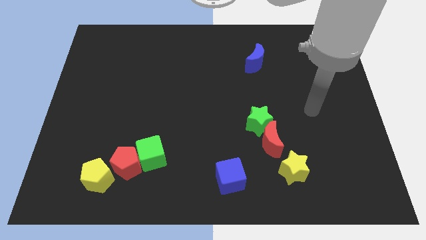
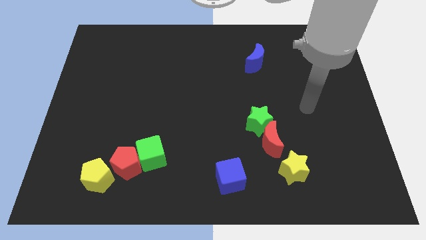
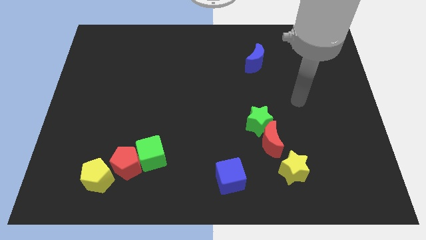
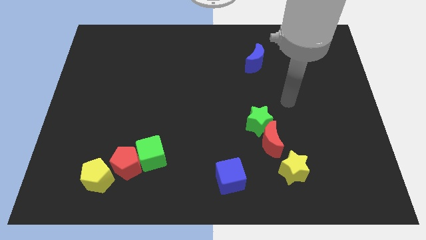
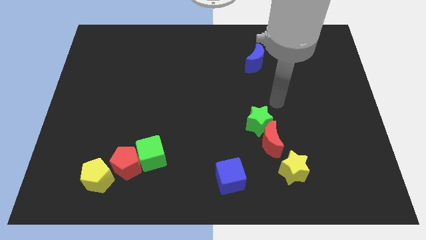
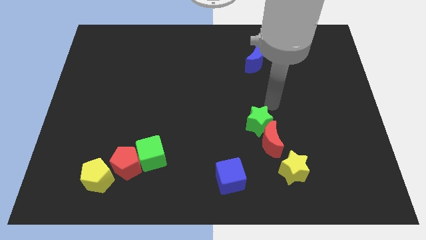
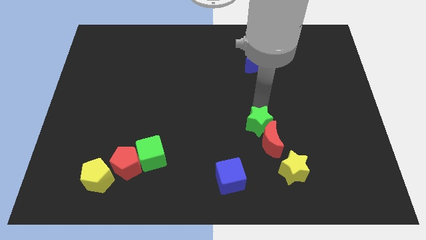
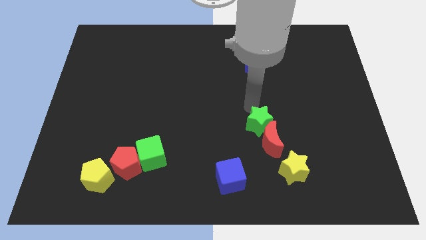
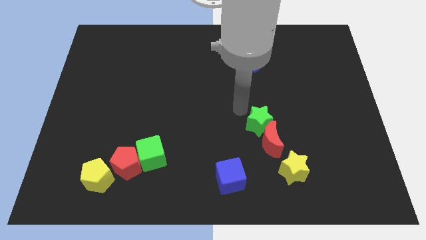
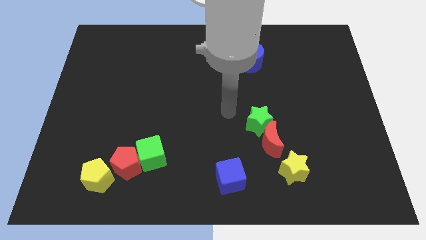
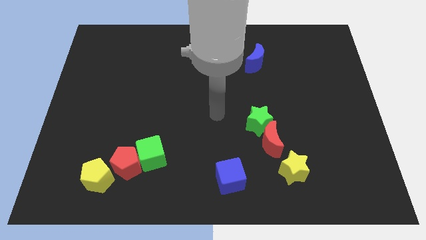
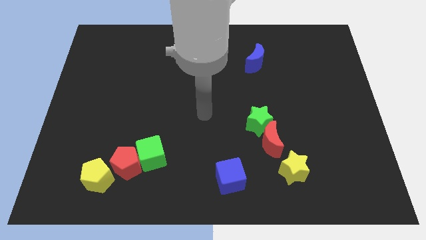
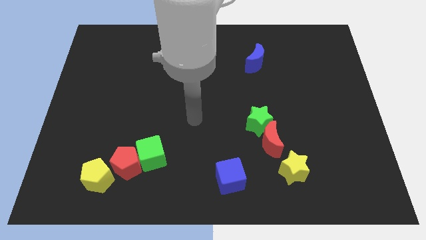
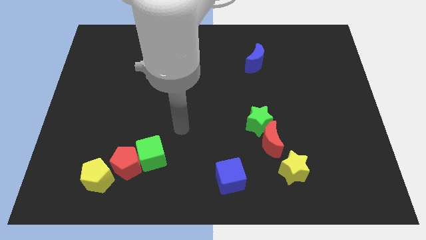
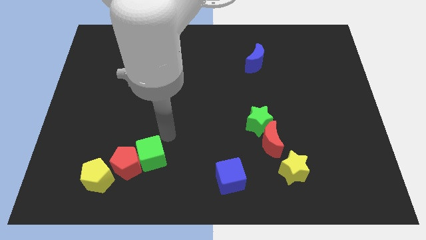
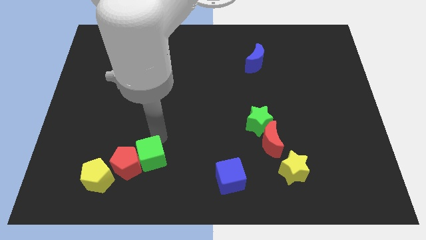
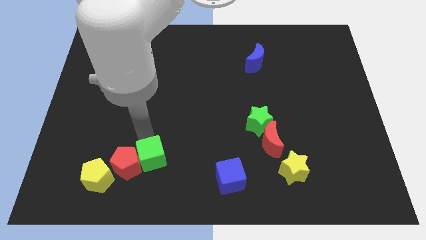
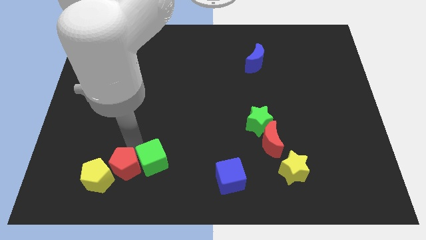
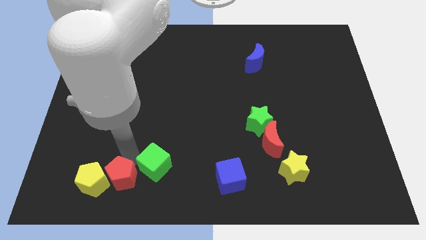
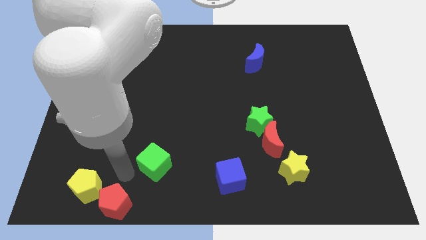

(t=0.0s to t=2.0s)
move the green cube away from the red pentagon

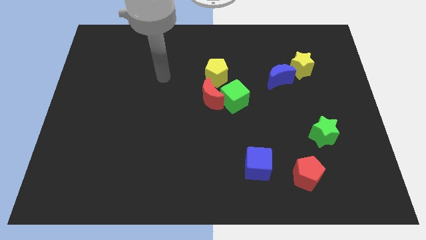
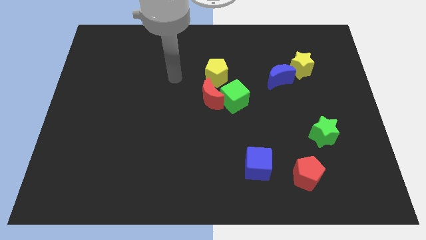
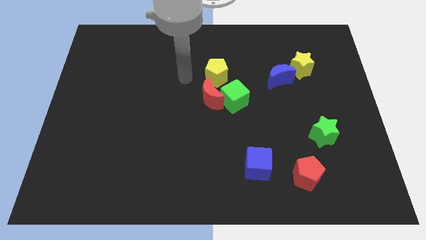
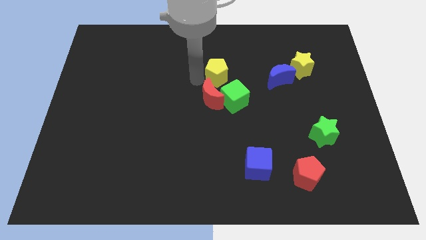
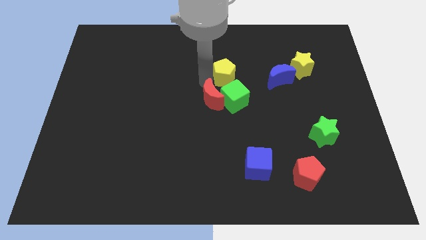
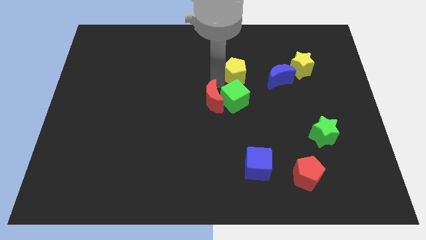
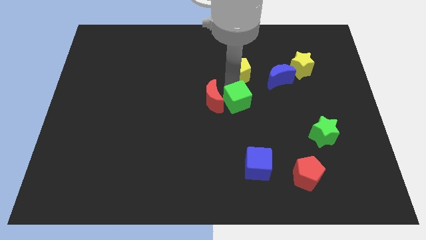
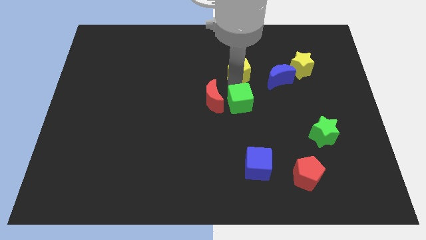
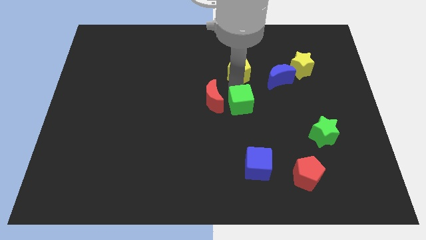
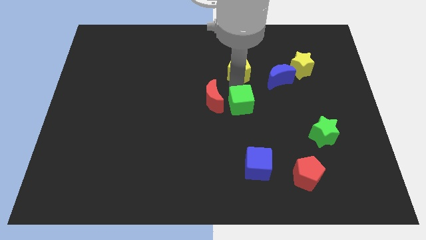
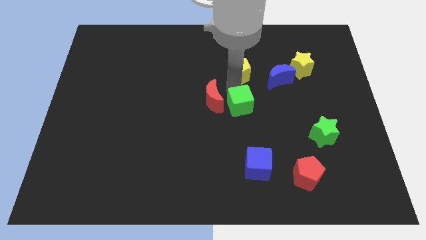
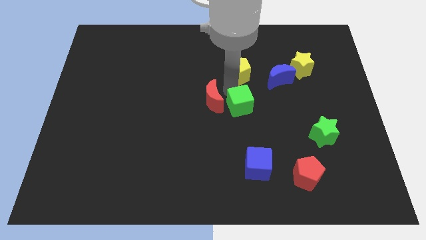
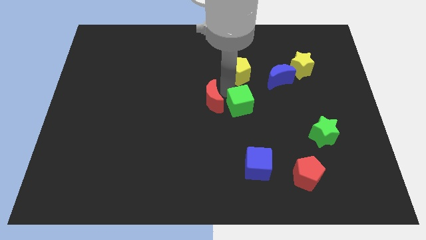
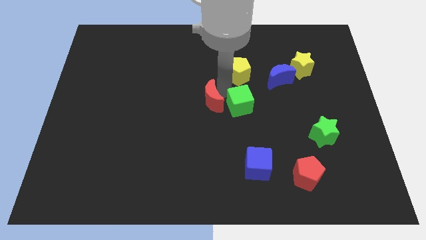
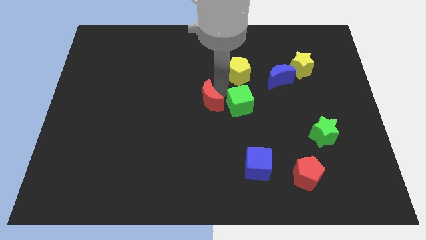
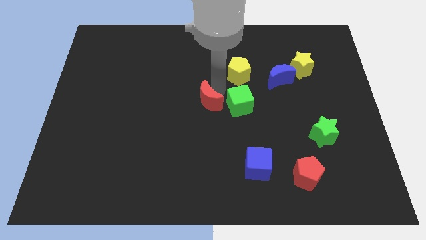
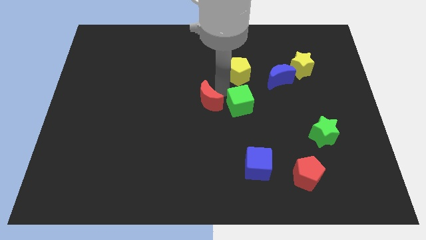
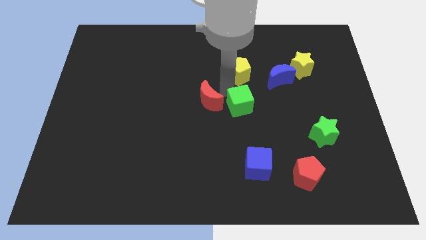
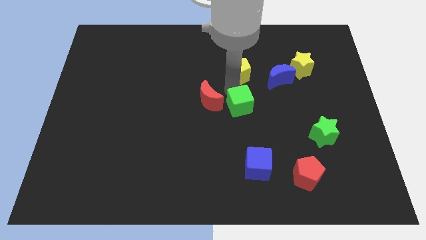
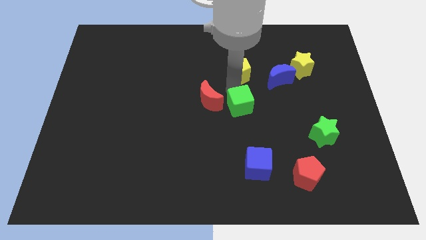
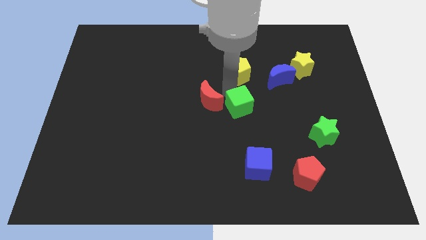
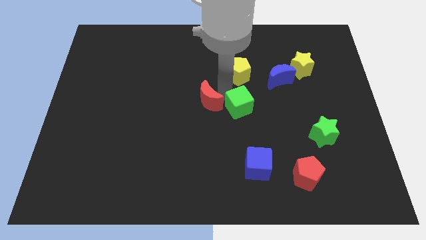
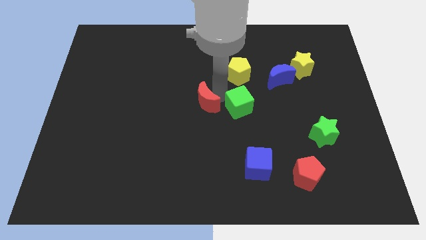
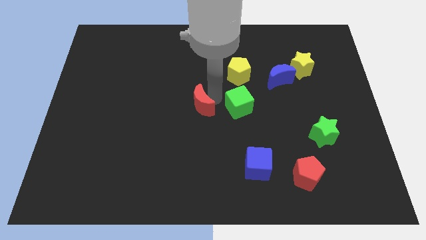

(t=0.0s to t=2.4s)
separate the red moon from the green cube and yellow pentagon

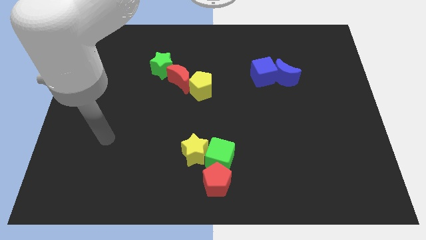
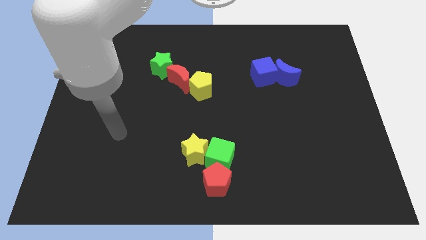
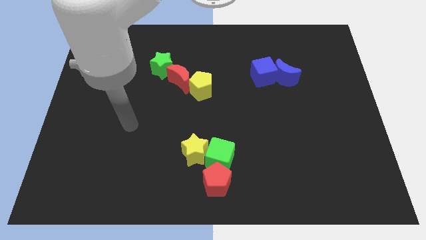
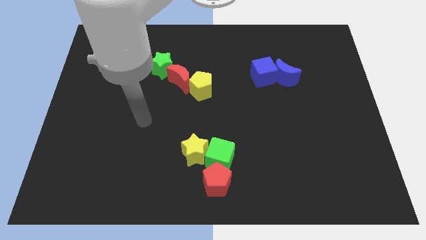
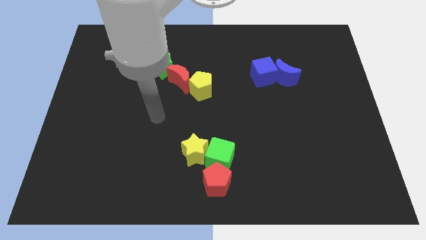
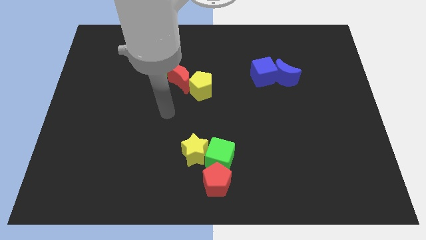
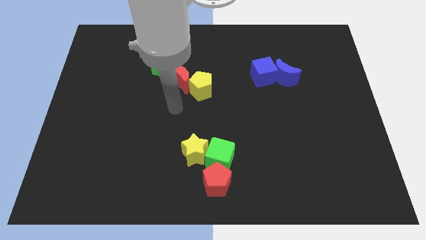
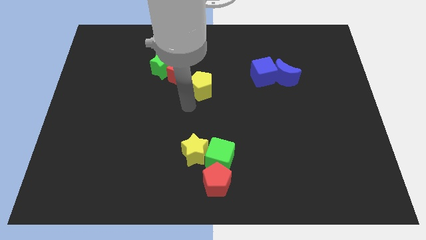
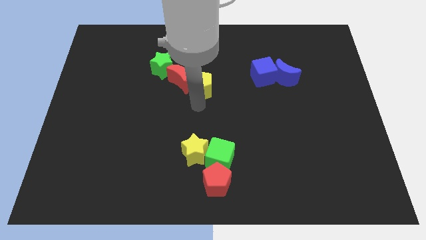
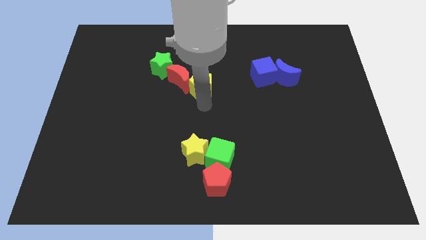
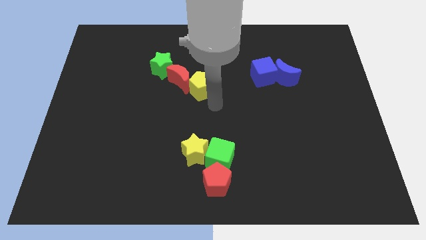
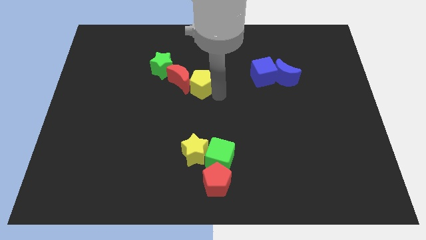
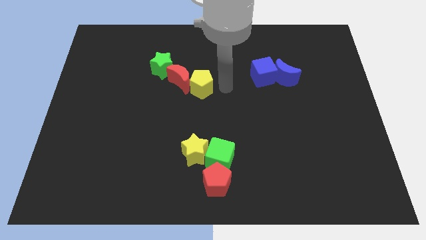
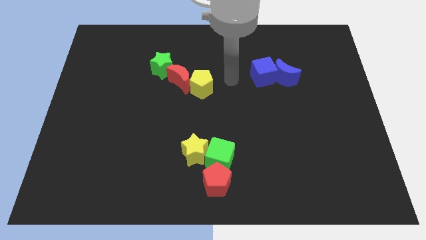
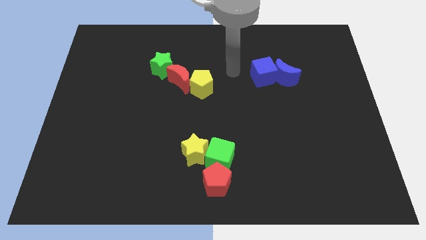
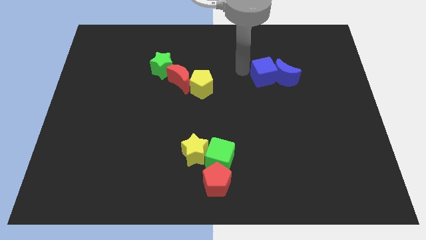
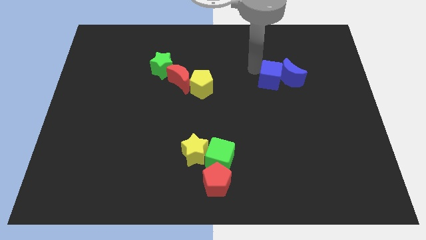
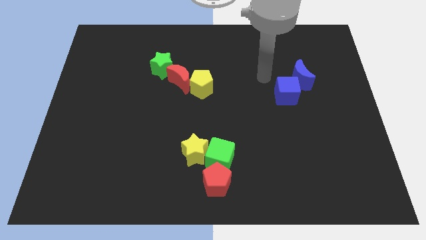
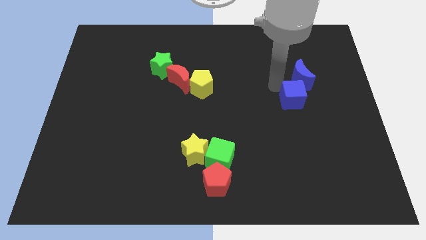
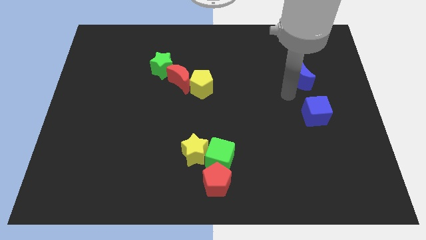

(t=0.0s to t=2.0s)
pull the blue moon apart from the blue cube

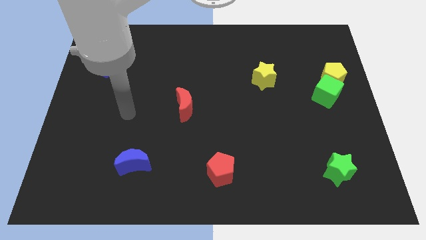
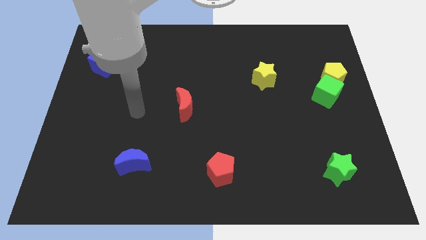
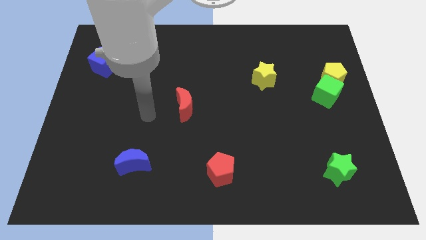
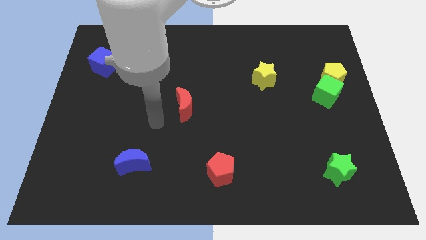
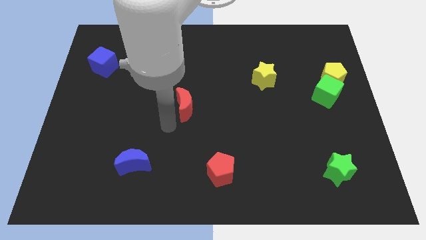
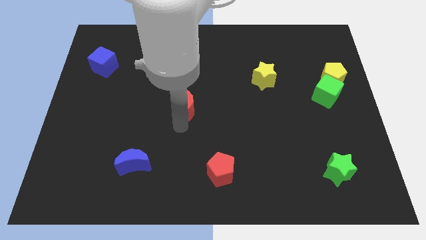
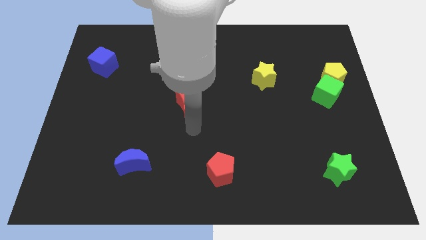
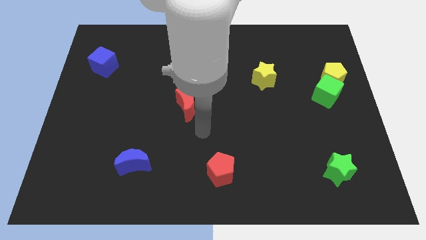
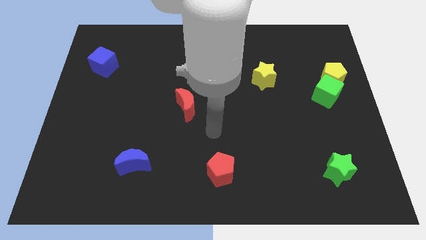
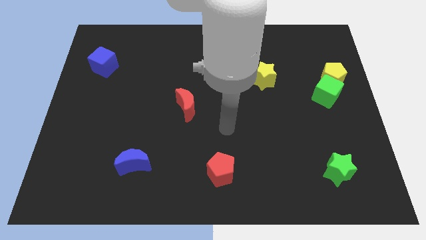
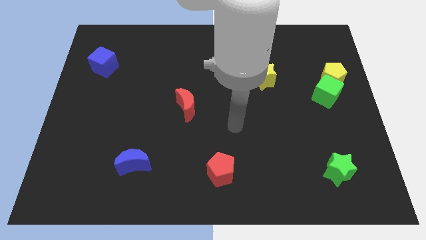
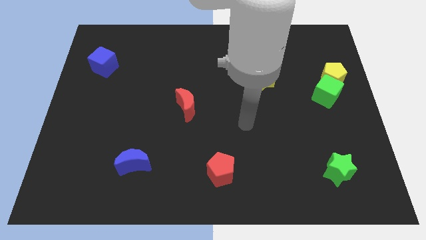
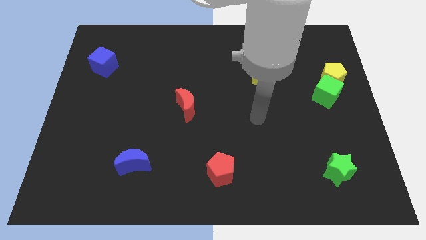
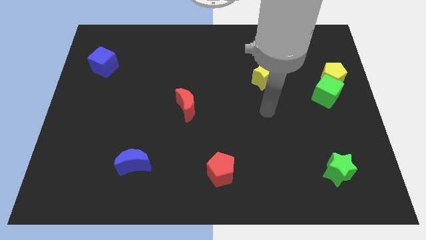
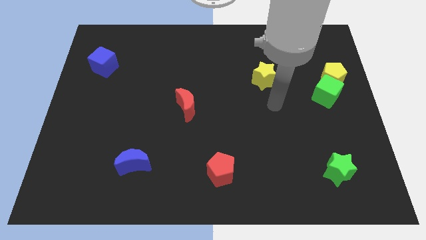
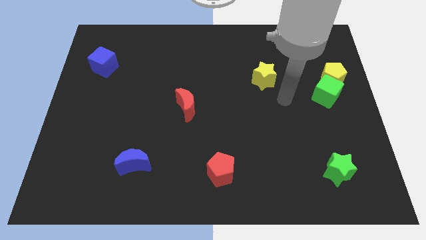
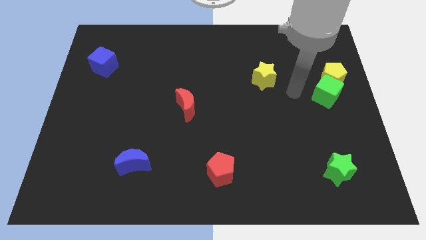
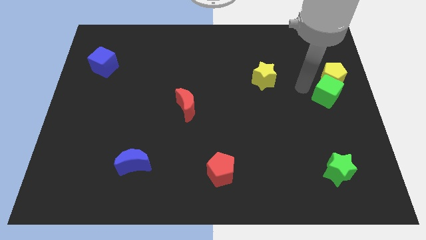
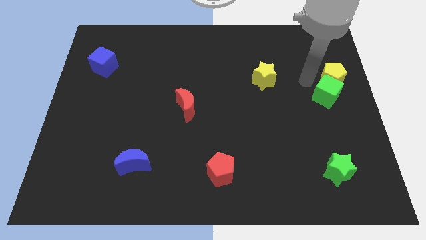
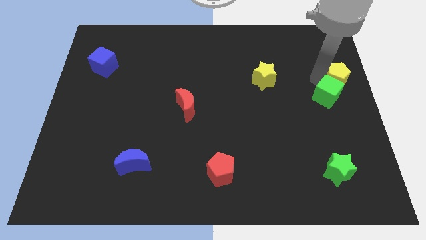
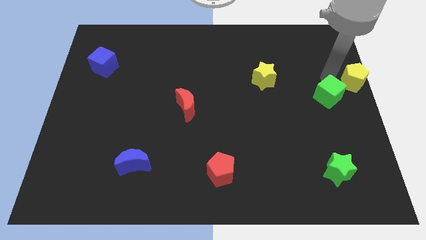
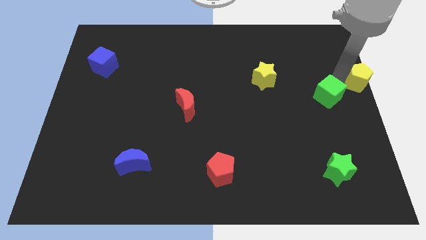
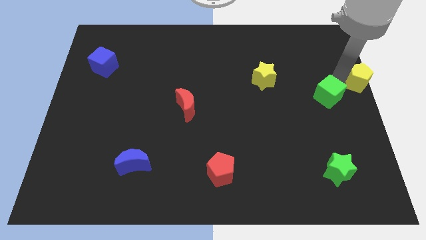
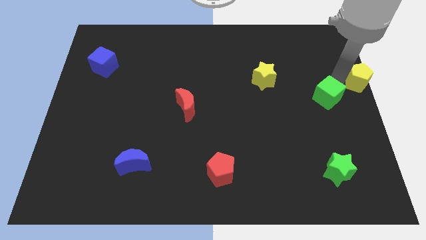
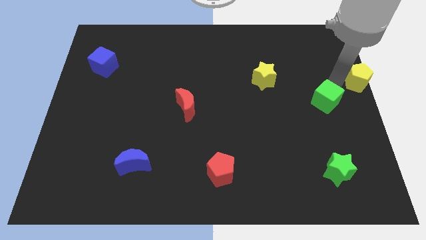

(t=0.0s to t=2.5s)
separate the green cube from the yellow pentagon

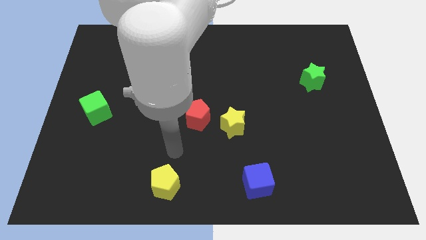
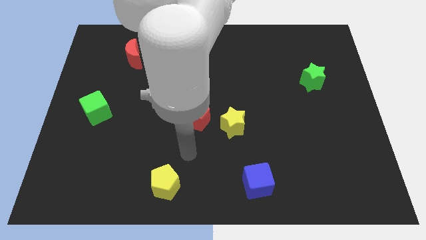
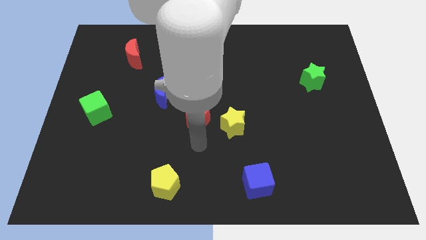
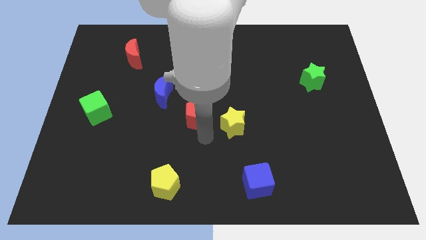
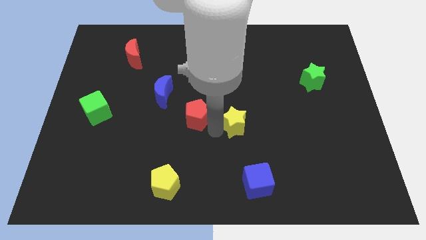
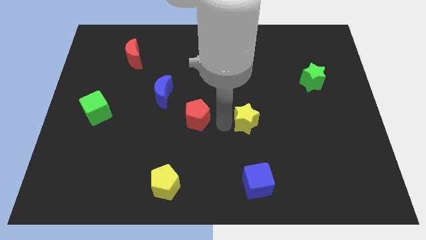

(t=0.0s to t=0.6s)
separate the red pentagon from the yellow star

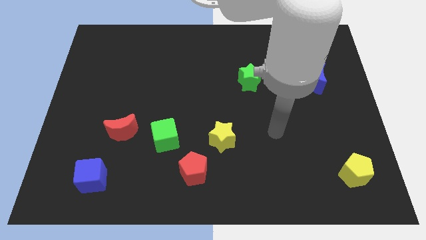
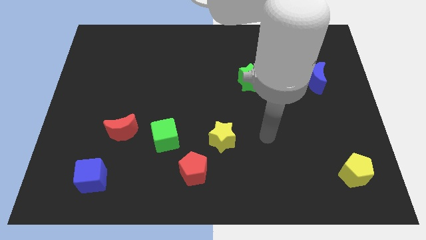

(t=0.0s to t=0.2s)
move the red pentagon away from the yellow star
